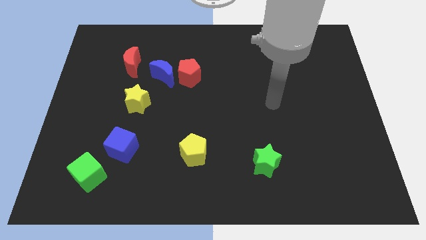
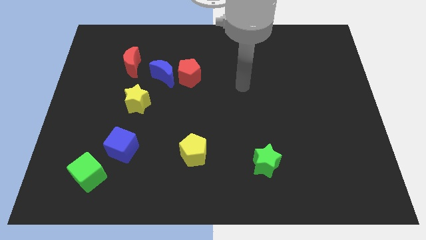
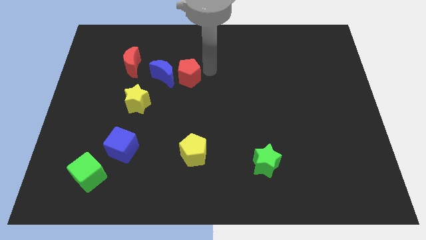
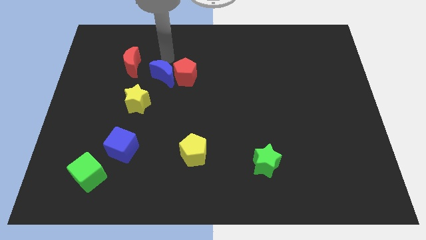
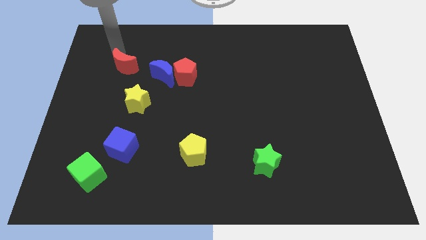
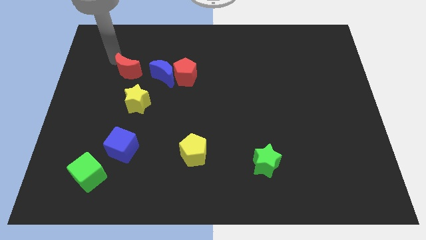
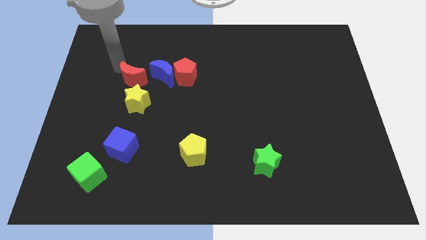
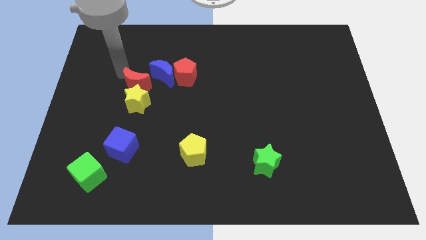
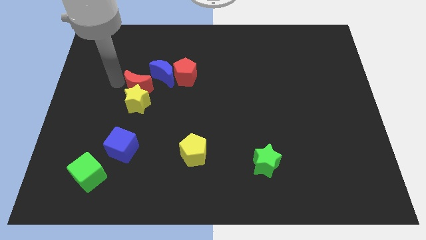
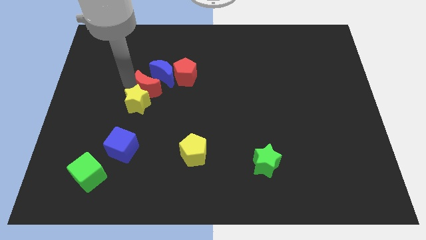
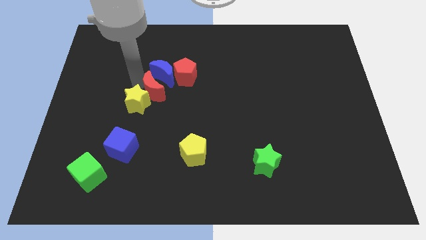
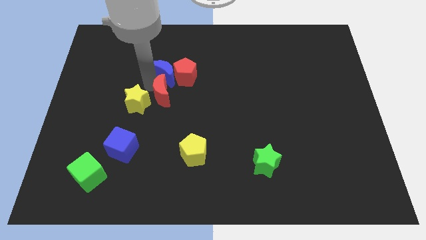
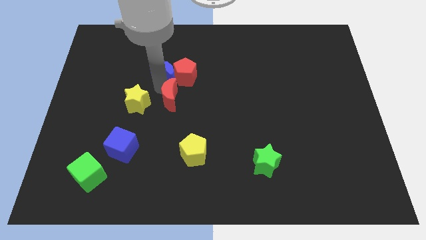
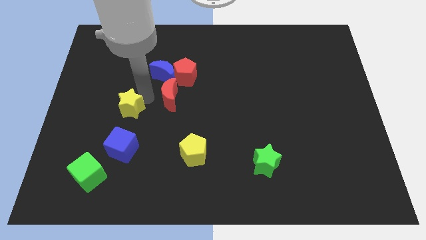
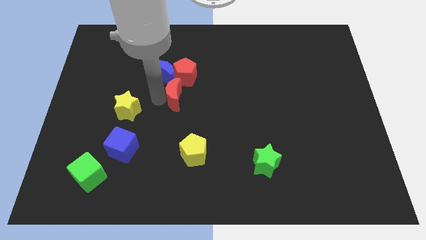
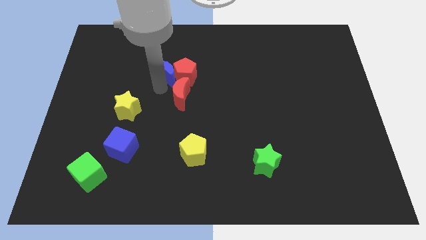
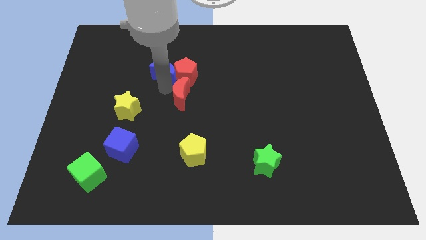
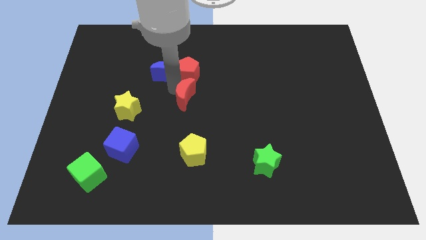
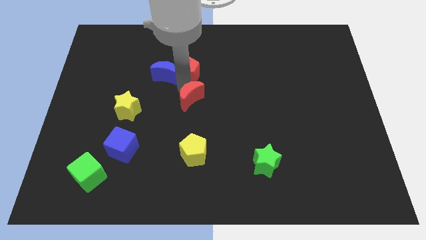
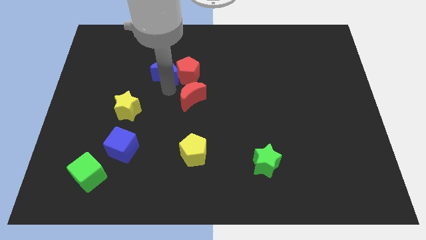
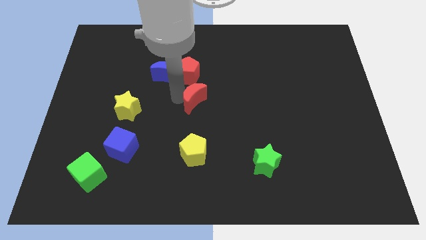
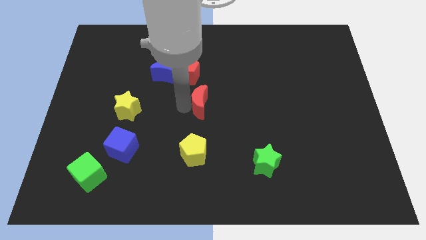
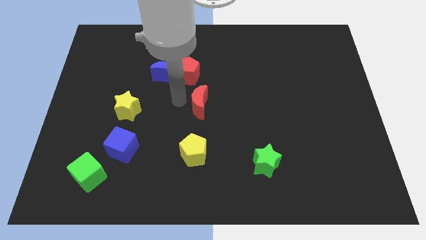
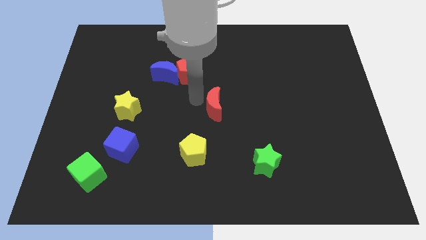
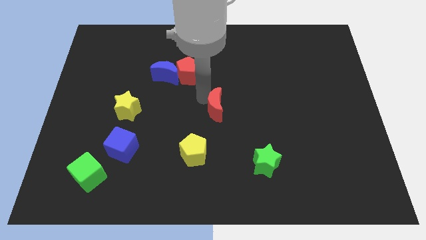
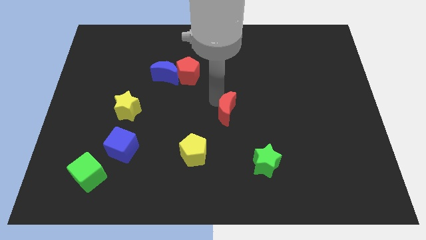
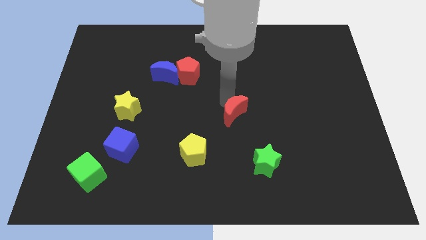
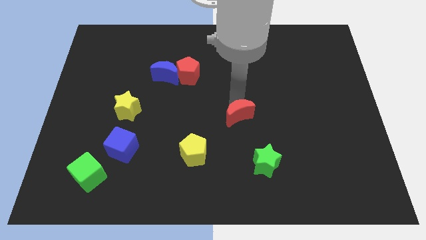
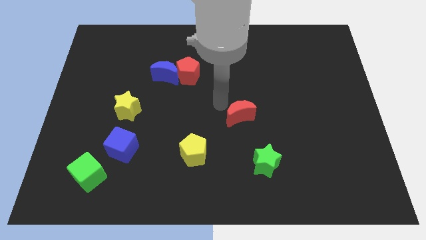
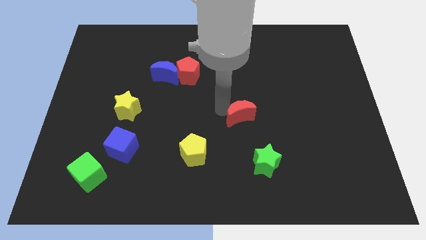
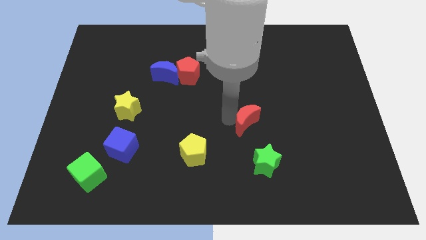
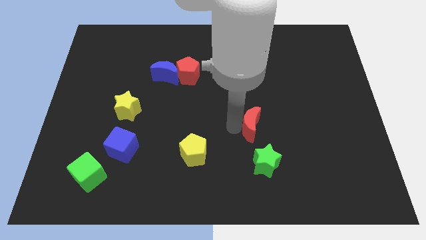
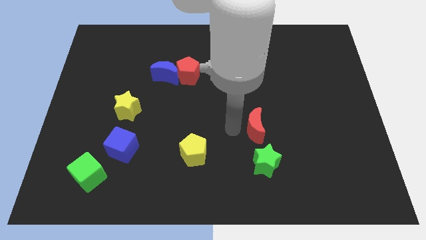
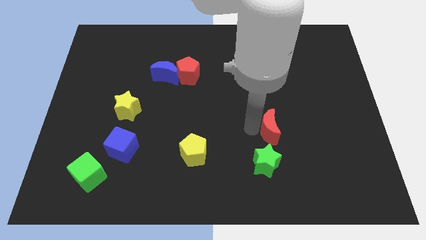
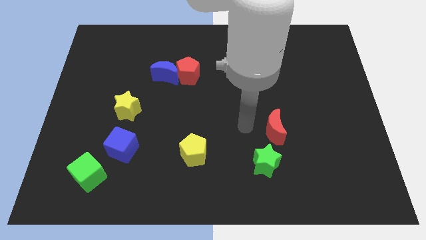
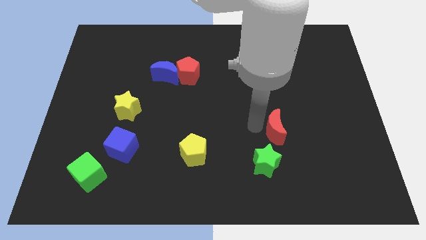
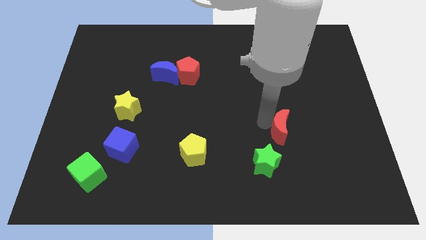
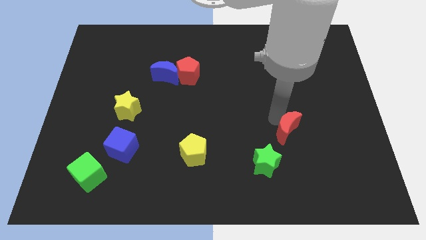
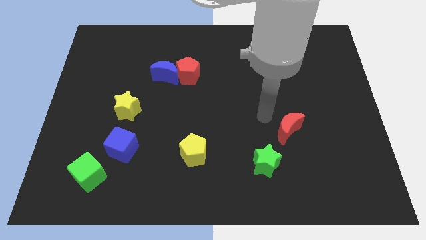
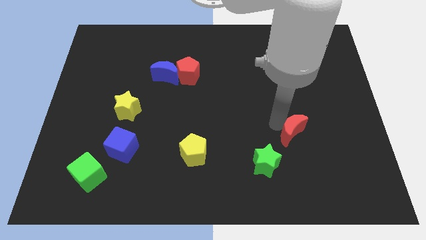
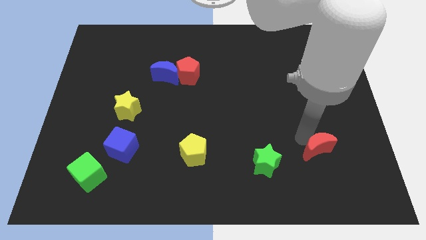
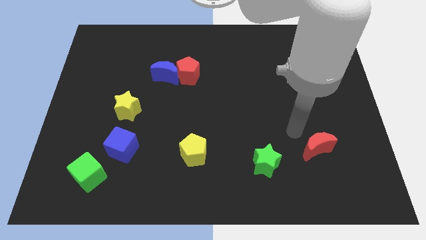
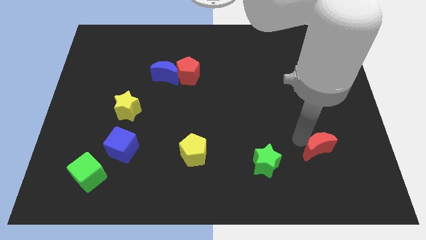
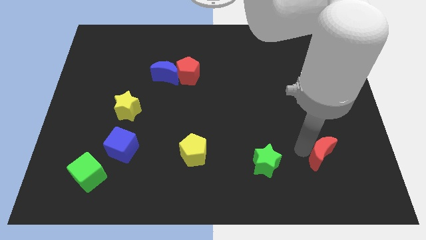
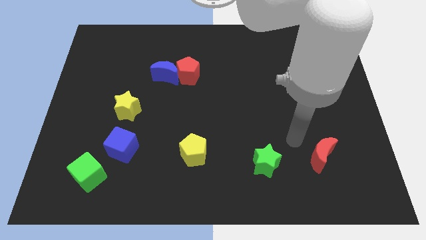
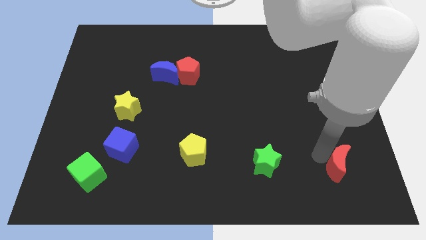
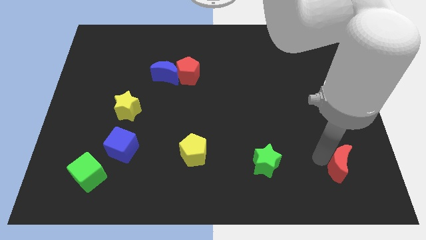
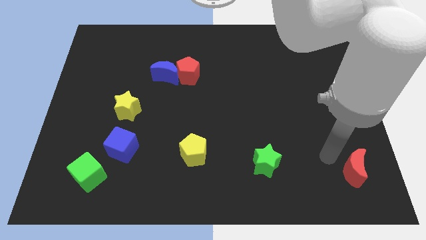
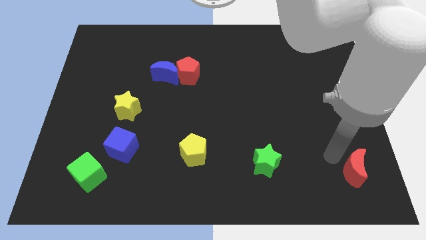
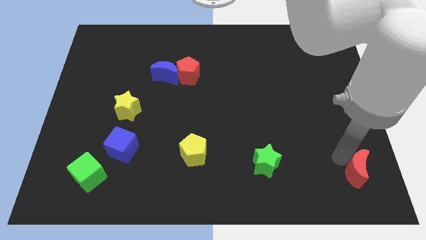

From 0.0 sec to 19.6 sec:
move the red moon to the bottom right of the board

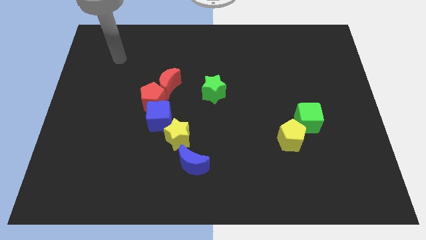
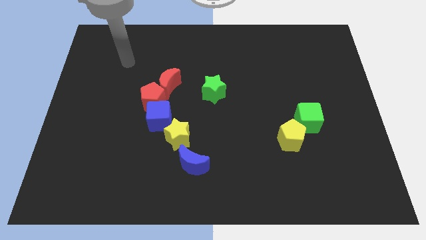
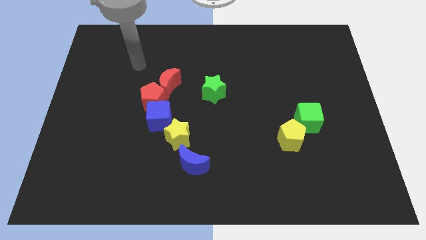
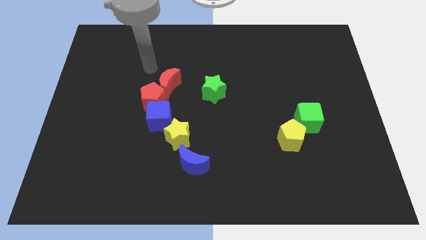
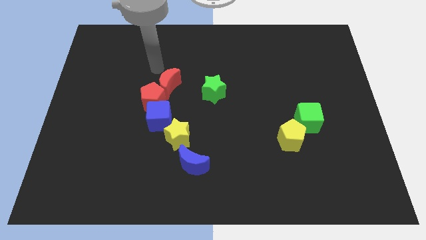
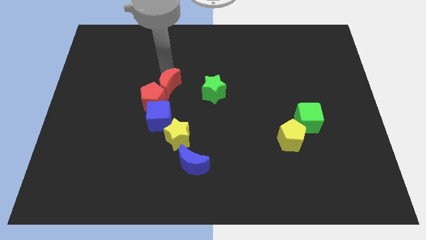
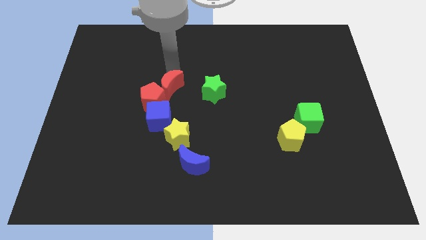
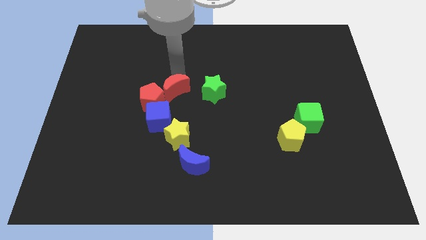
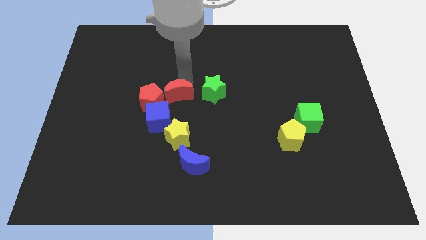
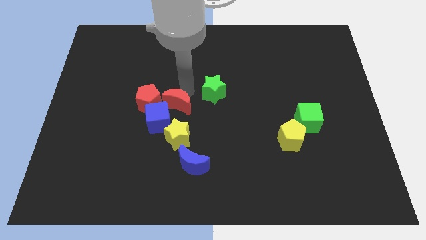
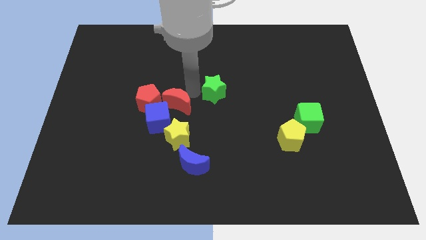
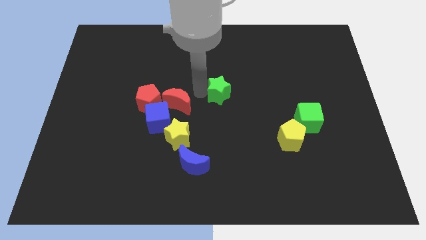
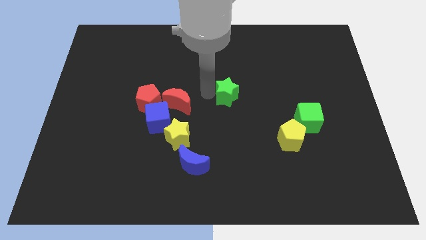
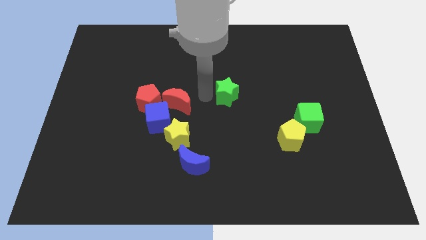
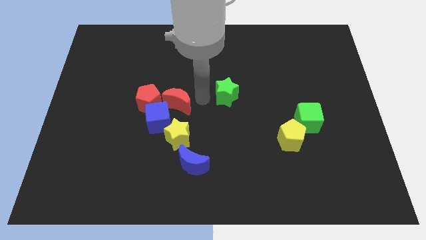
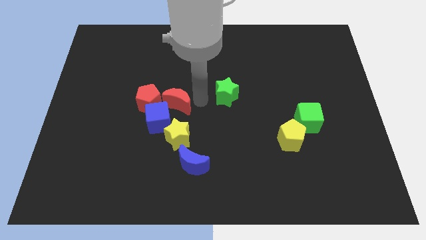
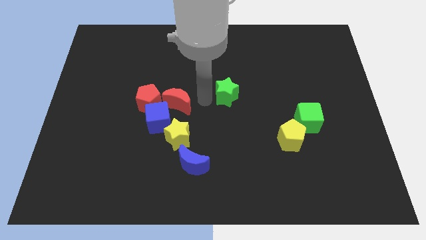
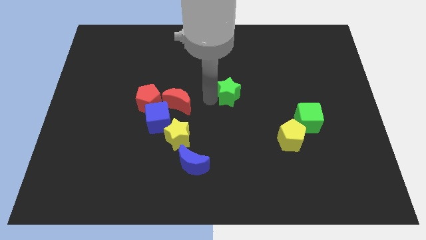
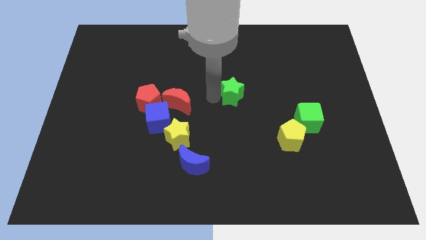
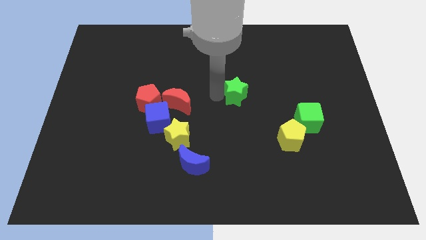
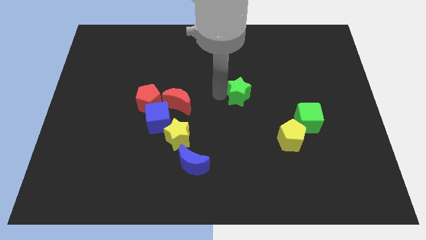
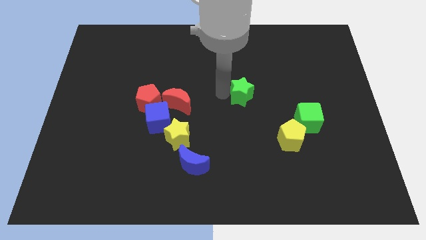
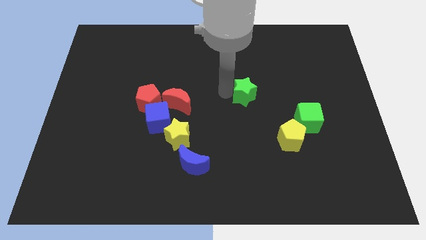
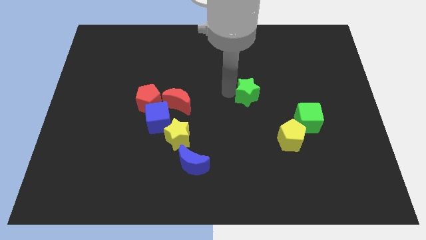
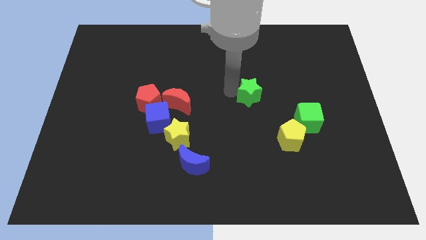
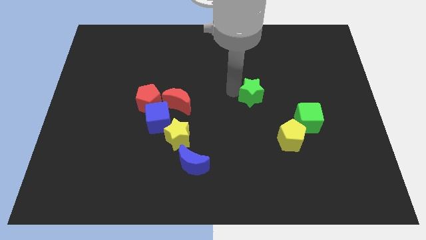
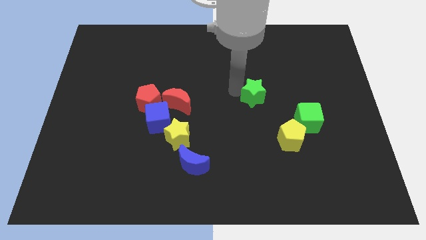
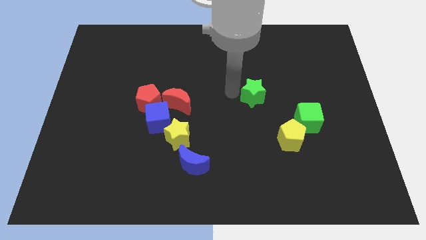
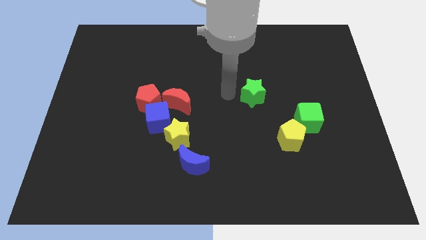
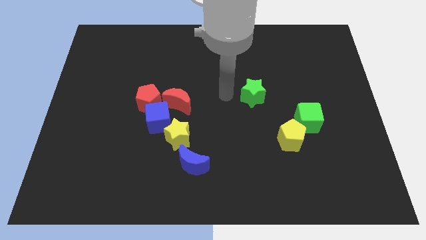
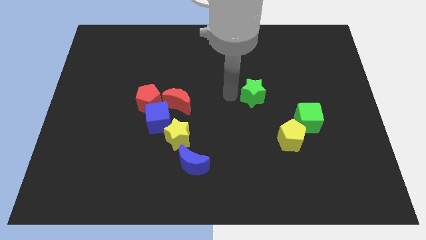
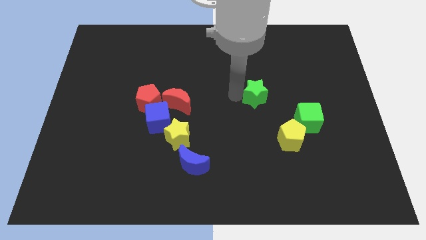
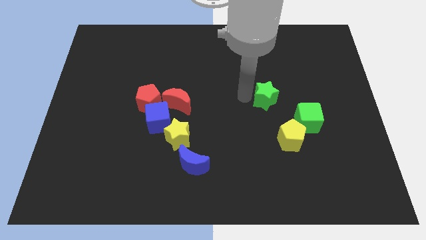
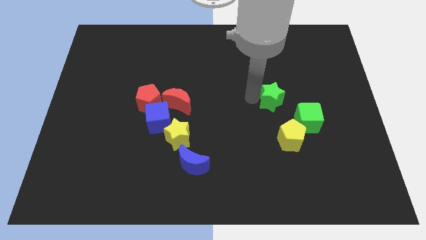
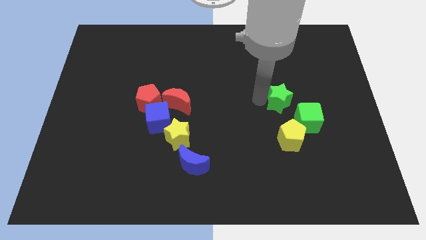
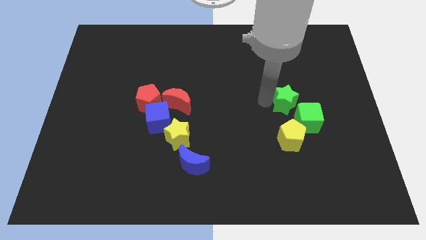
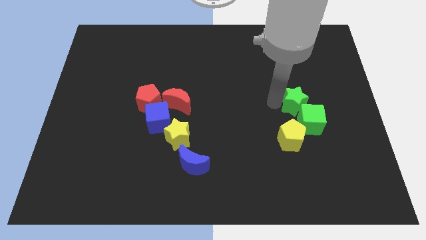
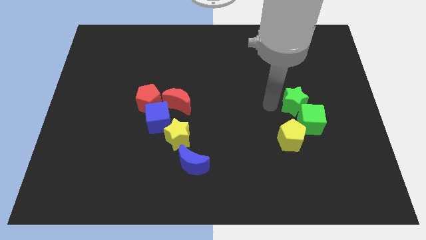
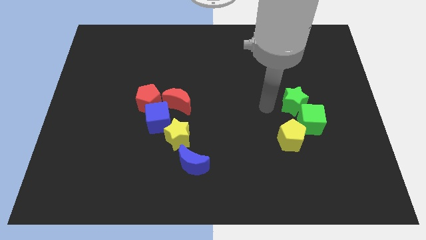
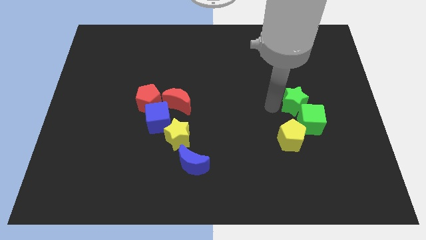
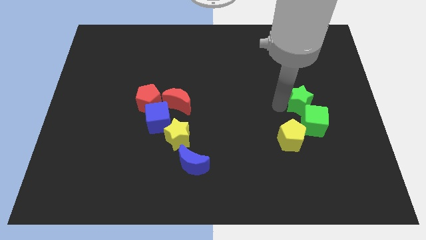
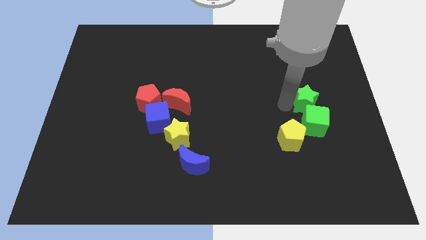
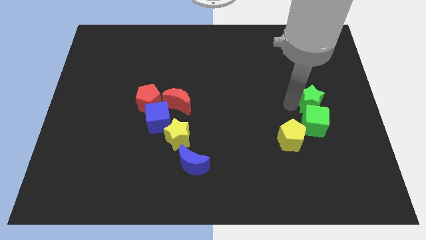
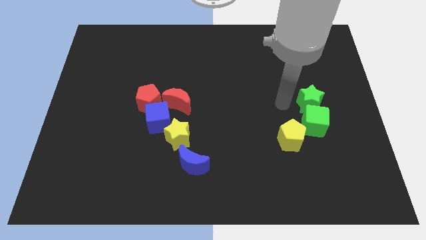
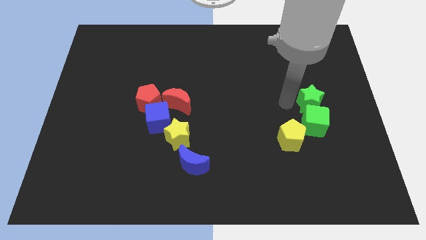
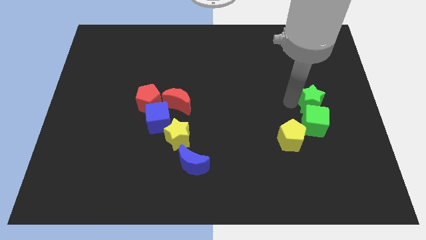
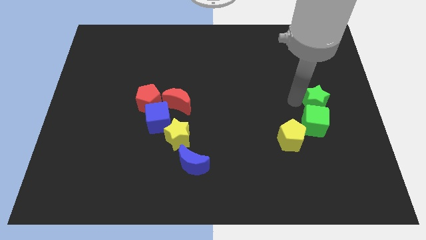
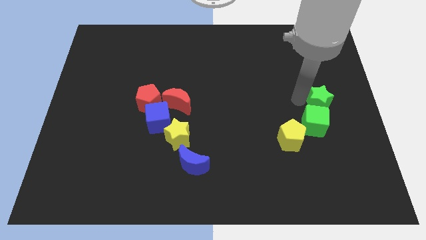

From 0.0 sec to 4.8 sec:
put the green star to the right side
